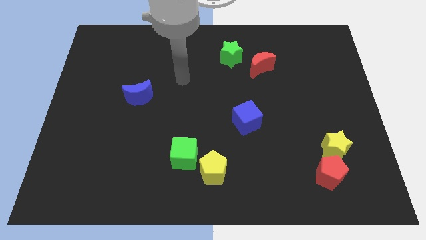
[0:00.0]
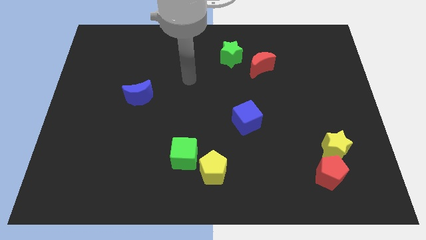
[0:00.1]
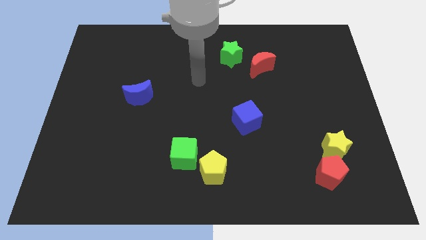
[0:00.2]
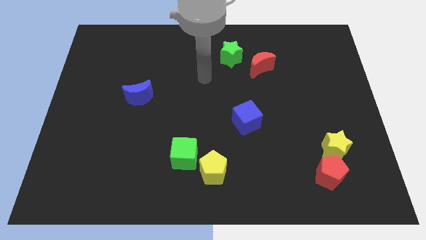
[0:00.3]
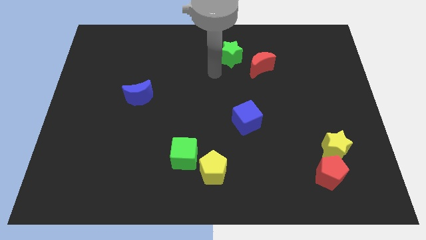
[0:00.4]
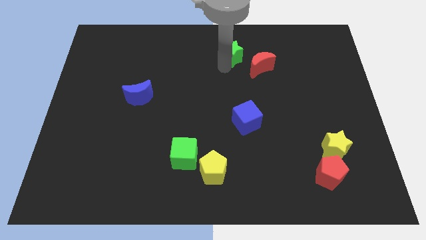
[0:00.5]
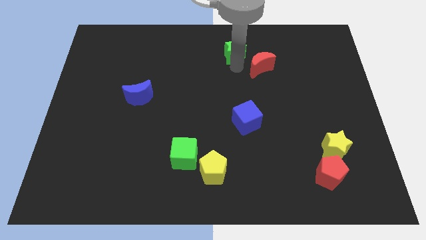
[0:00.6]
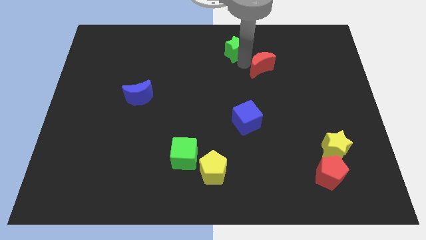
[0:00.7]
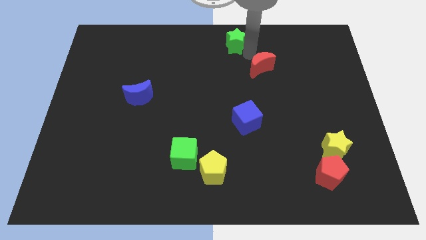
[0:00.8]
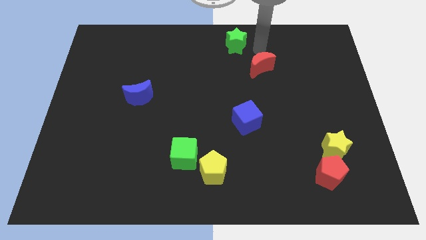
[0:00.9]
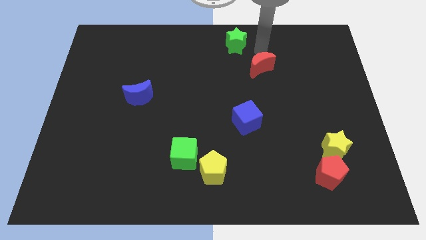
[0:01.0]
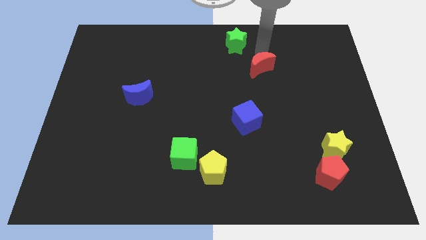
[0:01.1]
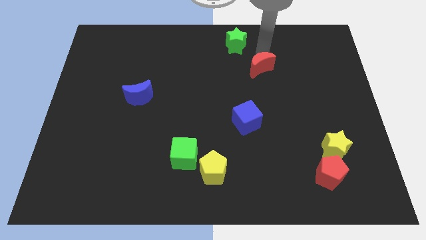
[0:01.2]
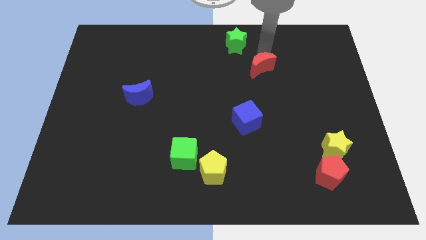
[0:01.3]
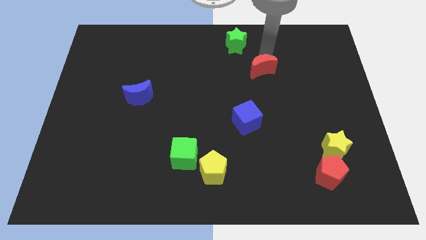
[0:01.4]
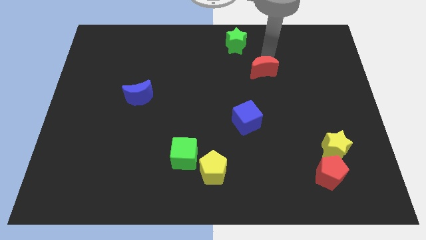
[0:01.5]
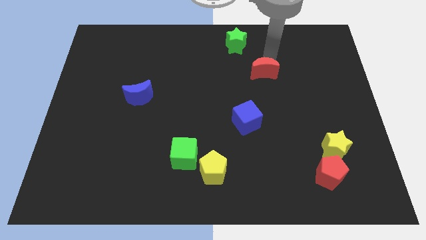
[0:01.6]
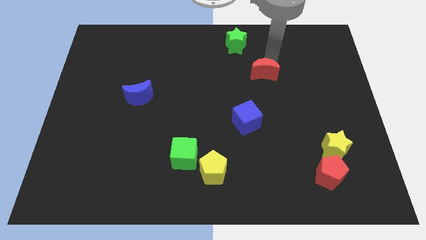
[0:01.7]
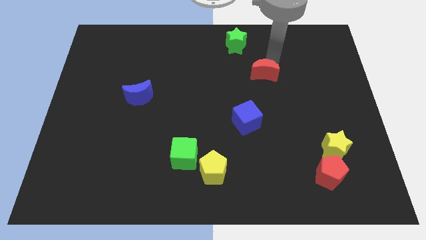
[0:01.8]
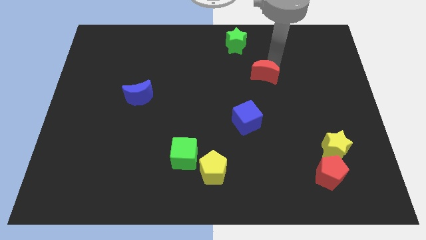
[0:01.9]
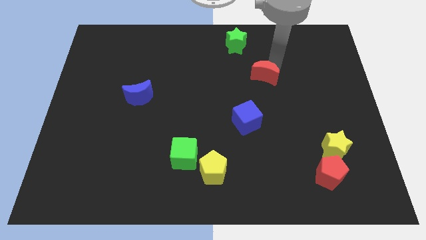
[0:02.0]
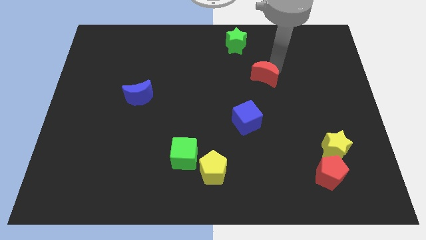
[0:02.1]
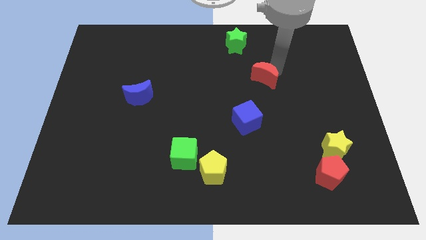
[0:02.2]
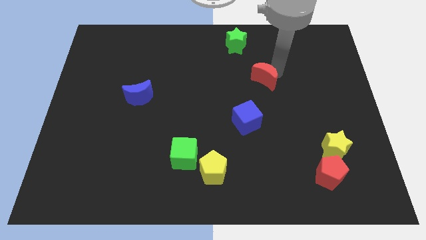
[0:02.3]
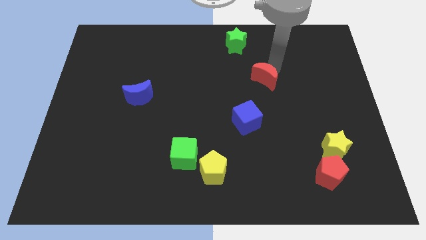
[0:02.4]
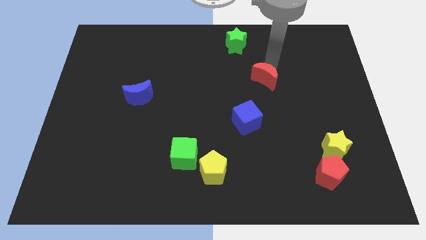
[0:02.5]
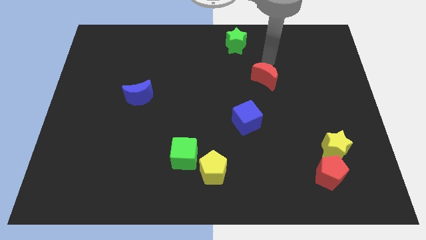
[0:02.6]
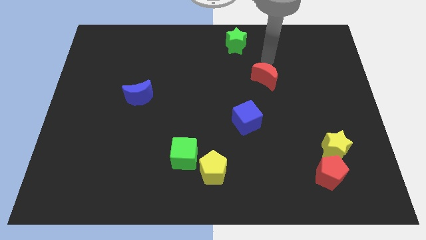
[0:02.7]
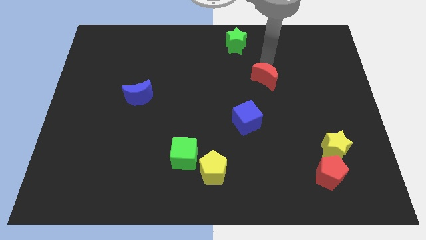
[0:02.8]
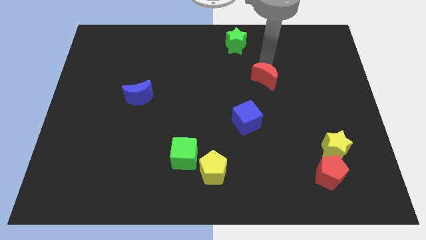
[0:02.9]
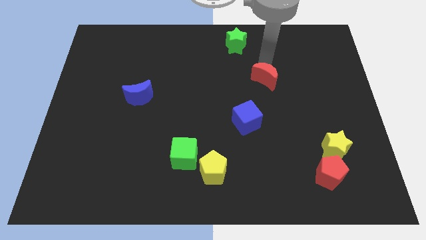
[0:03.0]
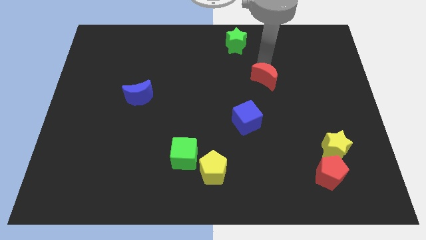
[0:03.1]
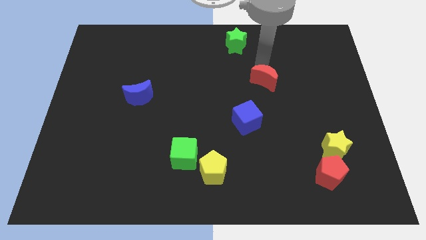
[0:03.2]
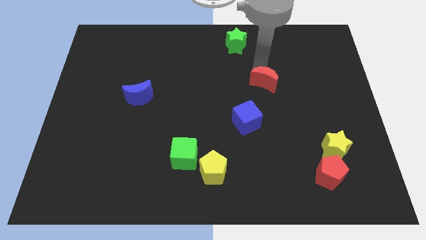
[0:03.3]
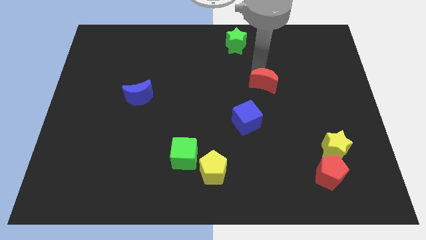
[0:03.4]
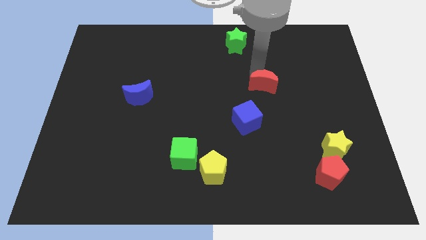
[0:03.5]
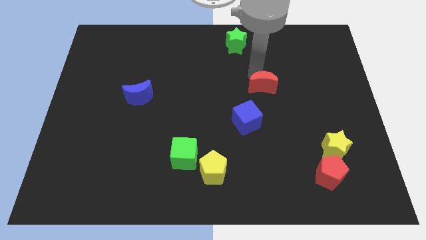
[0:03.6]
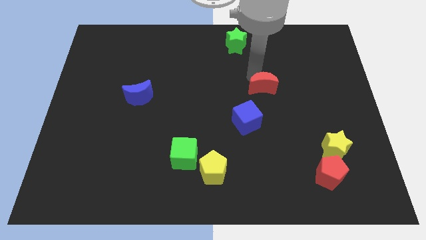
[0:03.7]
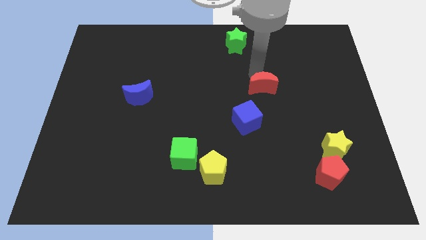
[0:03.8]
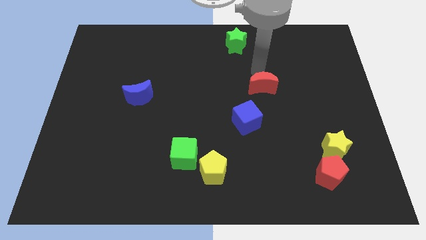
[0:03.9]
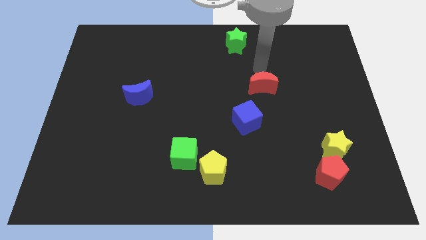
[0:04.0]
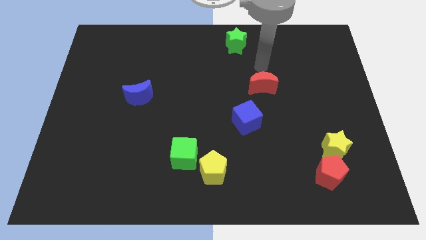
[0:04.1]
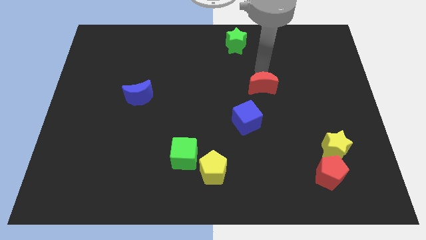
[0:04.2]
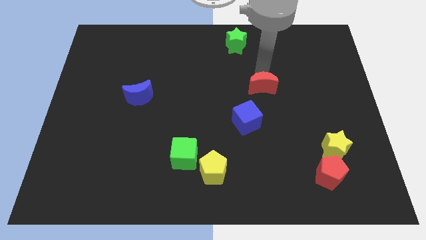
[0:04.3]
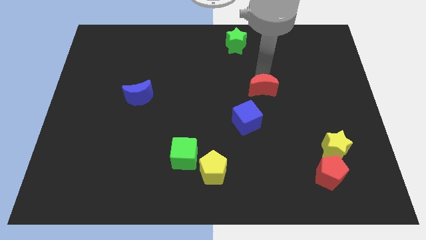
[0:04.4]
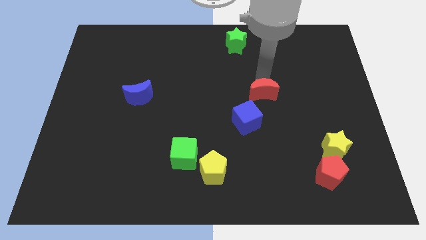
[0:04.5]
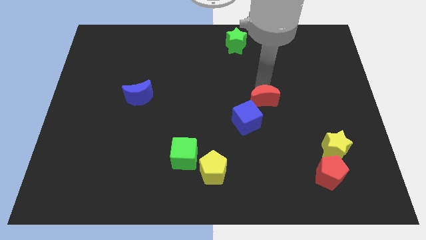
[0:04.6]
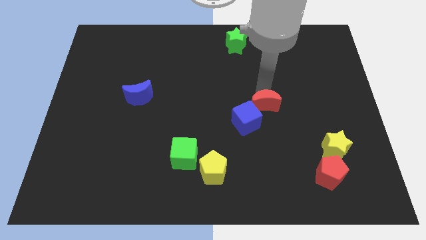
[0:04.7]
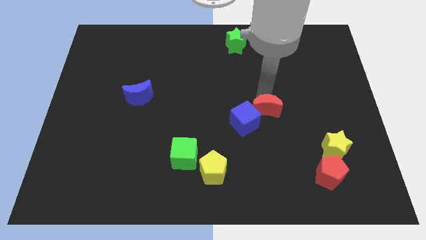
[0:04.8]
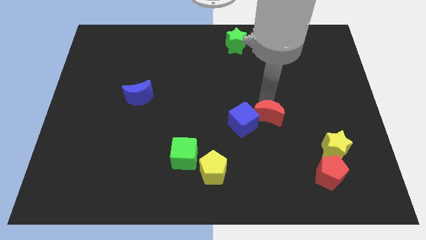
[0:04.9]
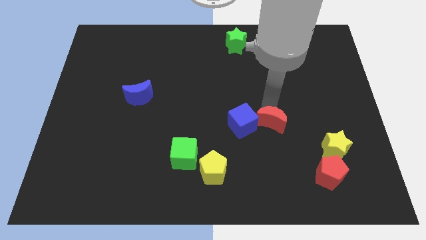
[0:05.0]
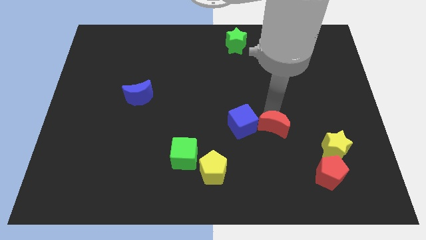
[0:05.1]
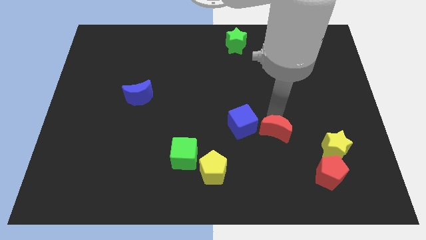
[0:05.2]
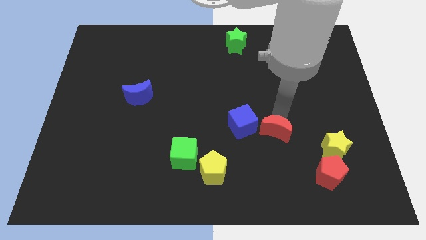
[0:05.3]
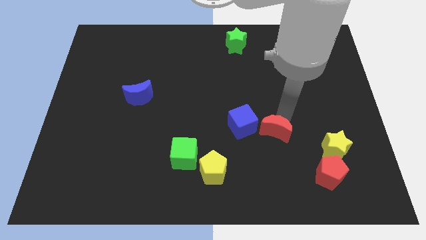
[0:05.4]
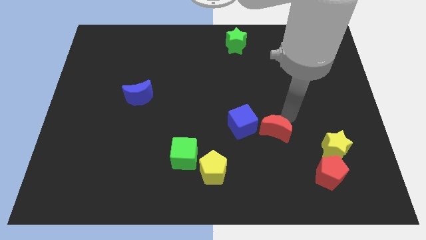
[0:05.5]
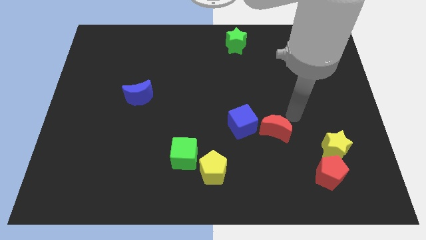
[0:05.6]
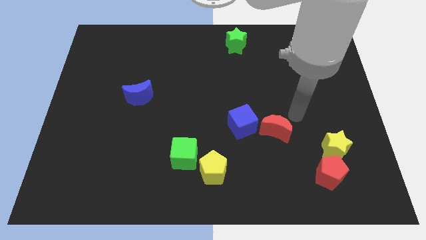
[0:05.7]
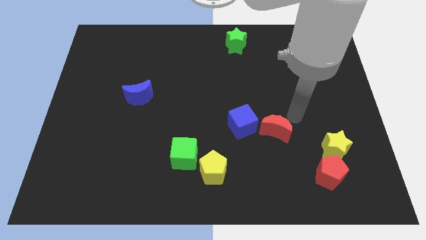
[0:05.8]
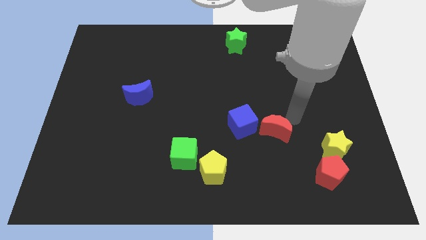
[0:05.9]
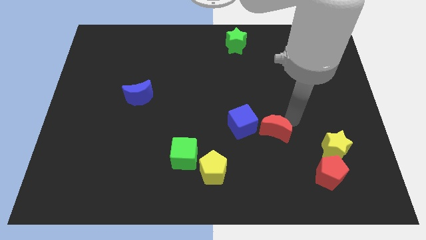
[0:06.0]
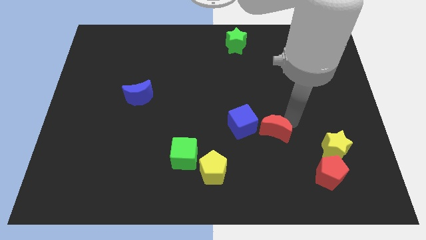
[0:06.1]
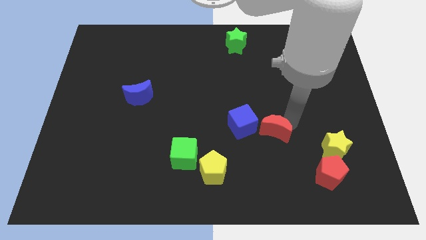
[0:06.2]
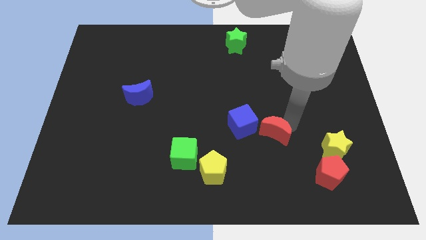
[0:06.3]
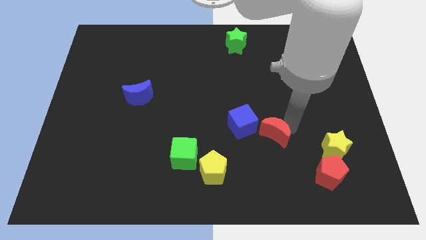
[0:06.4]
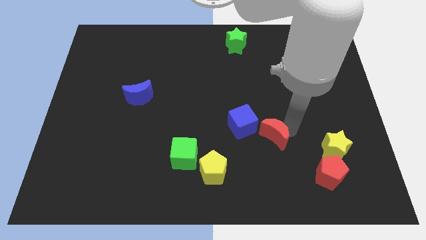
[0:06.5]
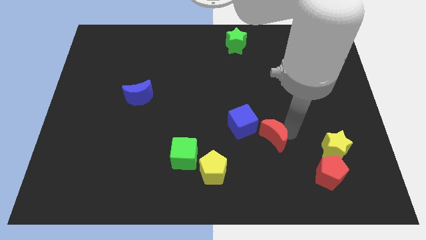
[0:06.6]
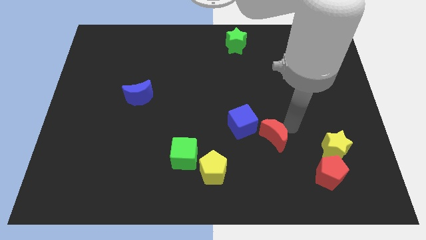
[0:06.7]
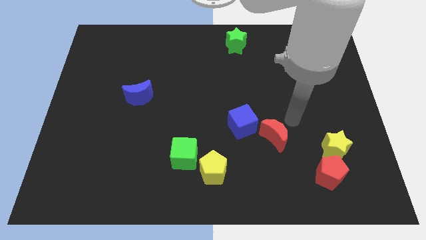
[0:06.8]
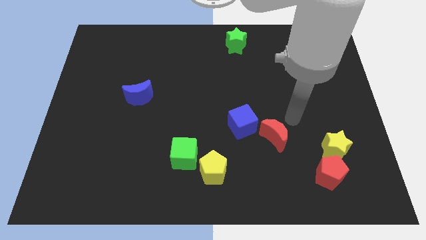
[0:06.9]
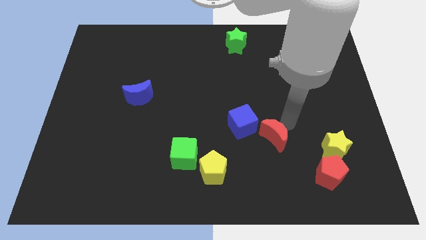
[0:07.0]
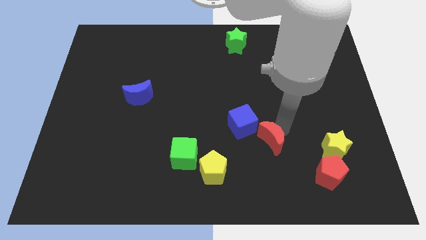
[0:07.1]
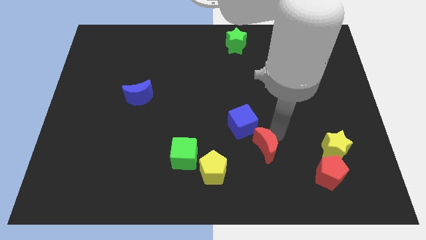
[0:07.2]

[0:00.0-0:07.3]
push the red moon to the bottom side of the blue cube
